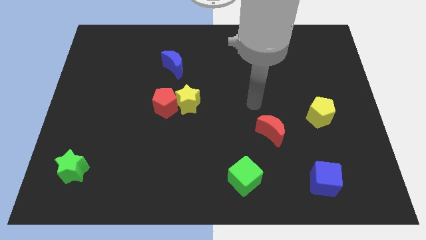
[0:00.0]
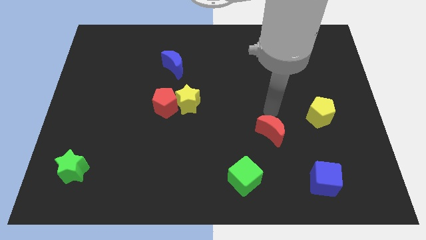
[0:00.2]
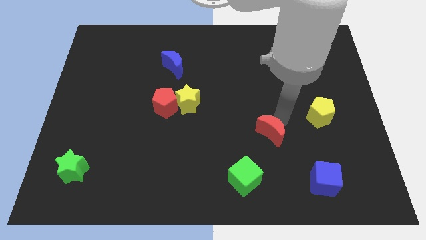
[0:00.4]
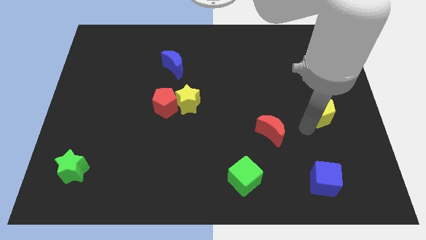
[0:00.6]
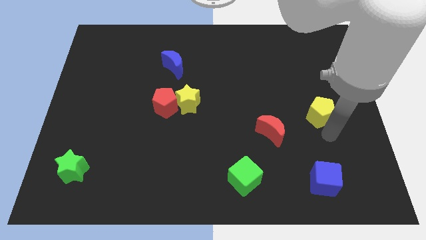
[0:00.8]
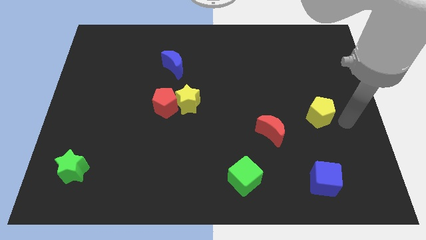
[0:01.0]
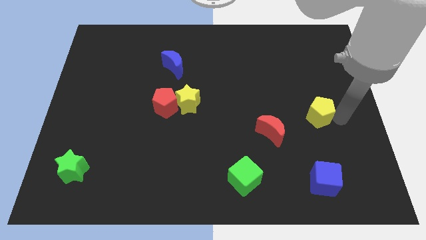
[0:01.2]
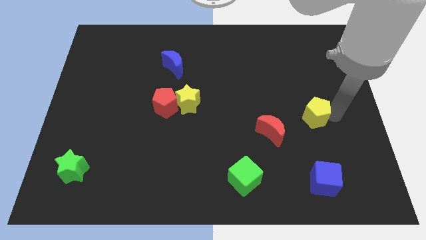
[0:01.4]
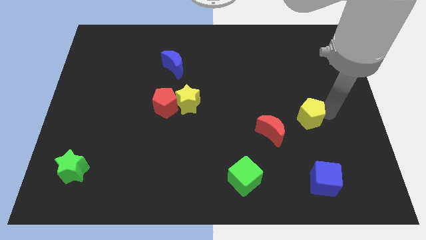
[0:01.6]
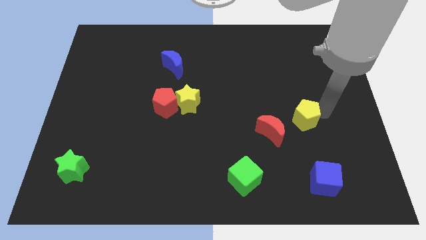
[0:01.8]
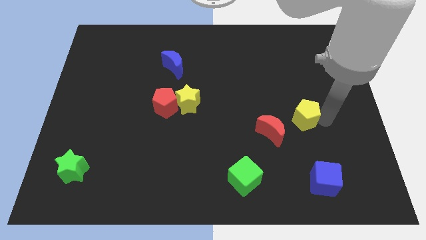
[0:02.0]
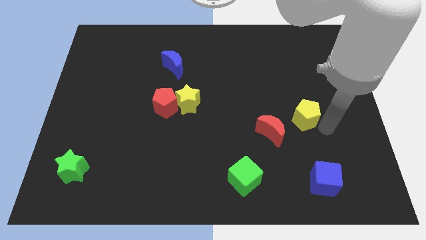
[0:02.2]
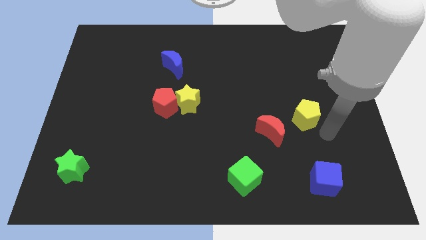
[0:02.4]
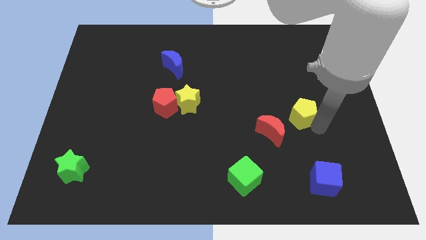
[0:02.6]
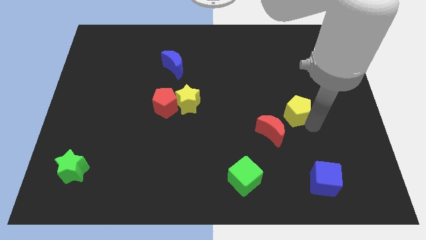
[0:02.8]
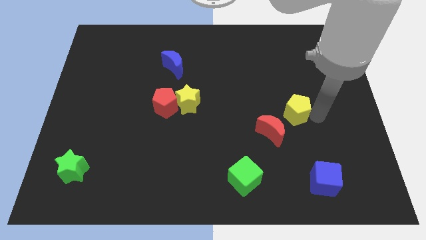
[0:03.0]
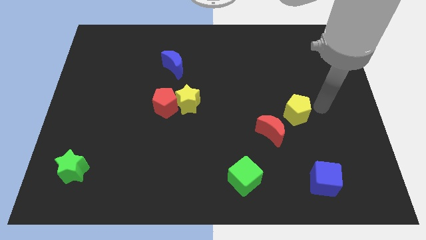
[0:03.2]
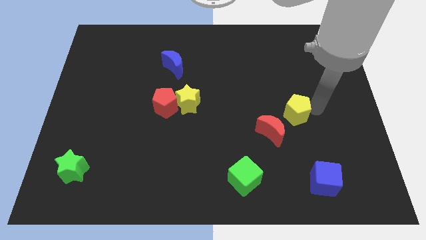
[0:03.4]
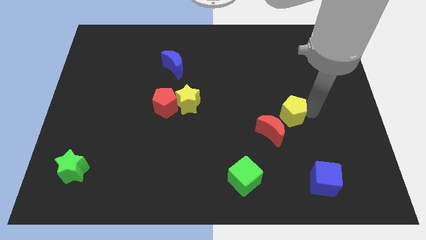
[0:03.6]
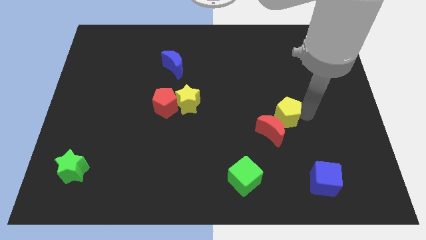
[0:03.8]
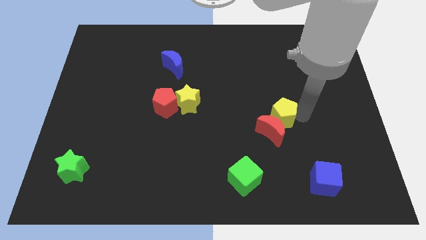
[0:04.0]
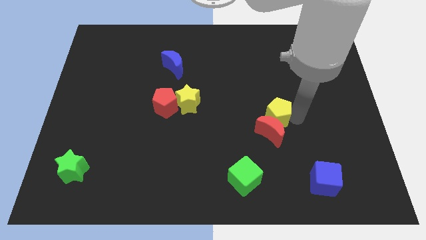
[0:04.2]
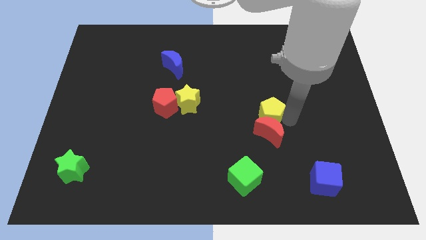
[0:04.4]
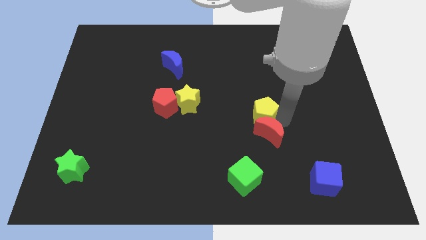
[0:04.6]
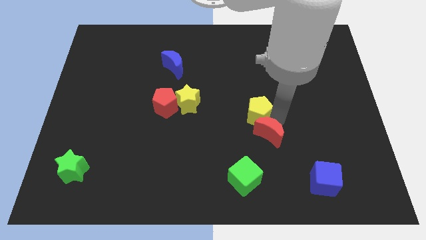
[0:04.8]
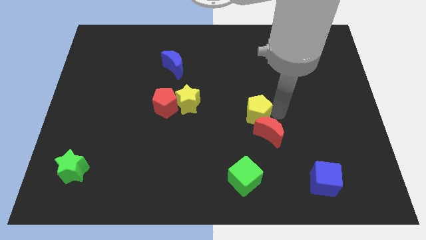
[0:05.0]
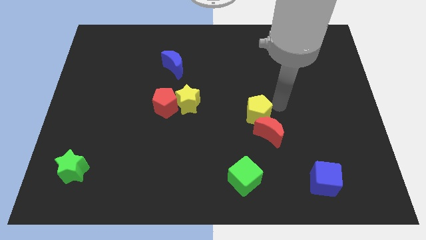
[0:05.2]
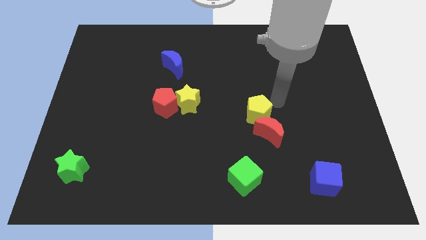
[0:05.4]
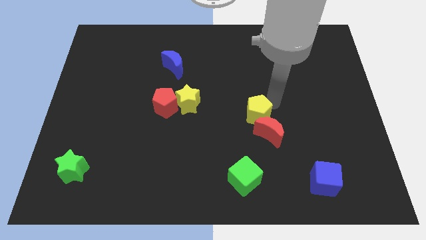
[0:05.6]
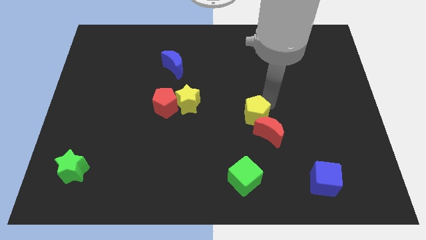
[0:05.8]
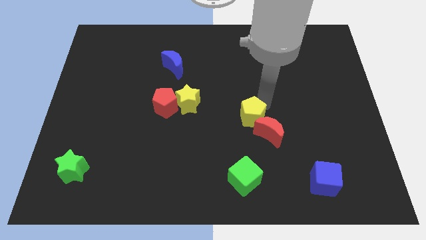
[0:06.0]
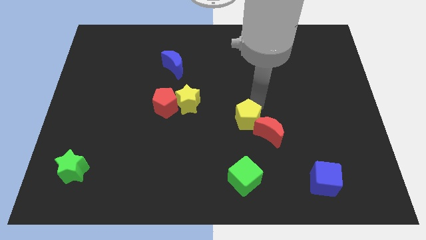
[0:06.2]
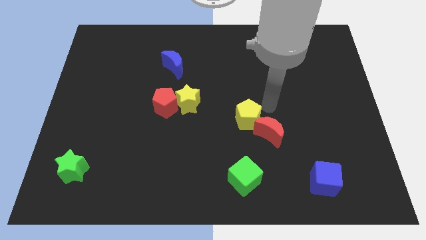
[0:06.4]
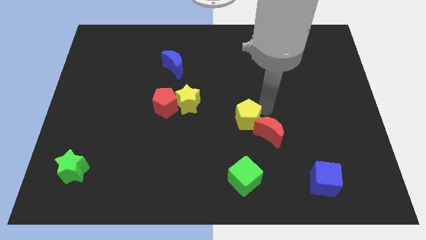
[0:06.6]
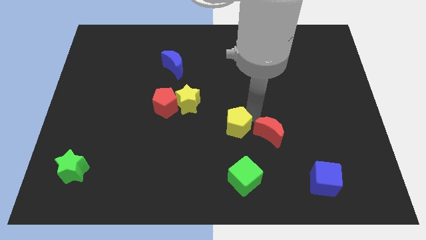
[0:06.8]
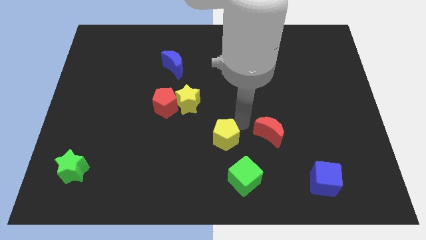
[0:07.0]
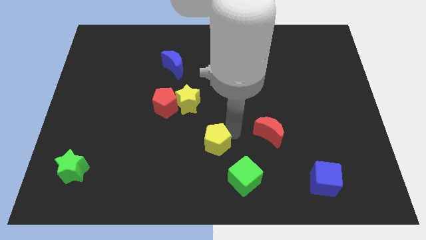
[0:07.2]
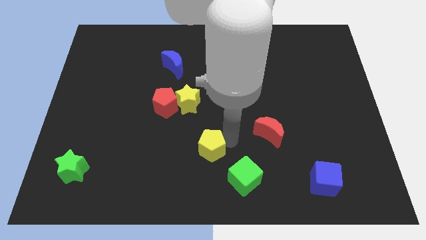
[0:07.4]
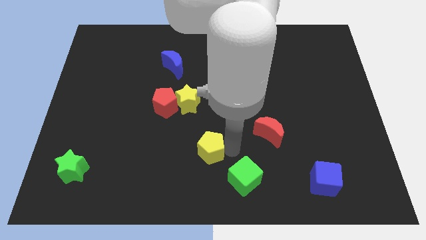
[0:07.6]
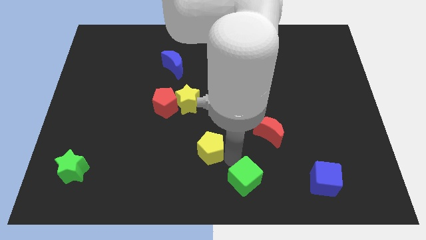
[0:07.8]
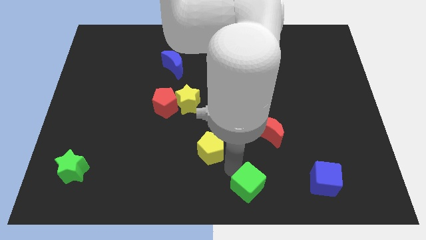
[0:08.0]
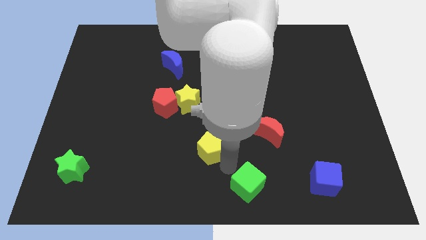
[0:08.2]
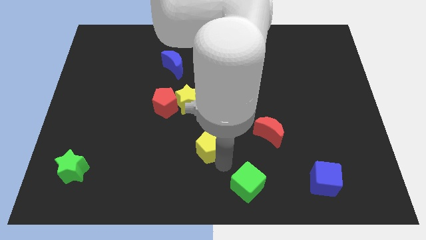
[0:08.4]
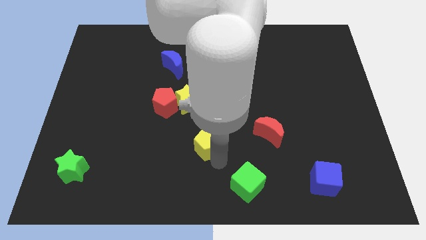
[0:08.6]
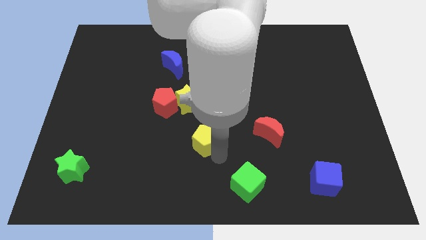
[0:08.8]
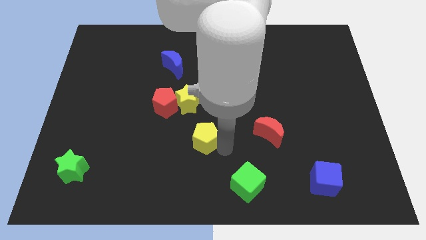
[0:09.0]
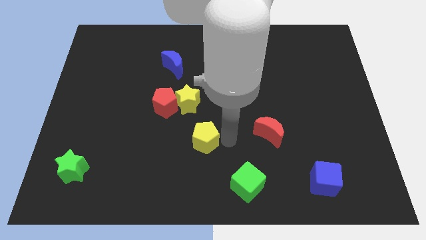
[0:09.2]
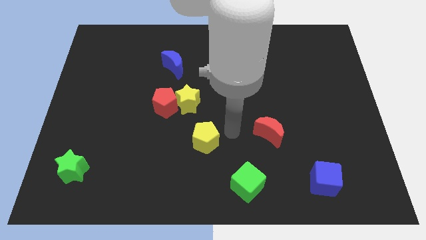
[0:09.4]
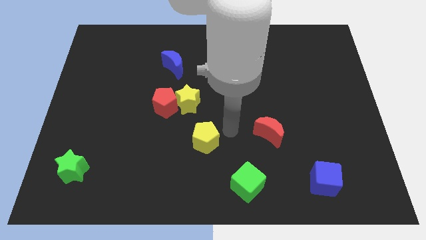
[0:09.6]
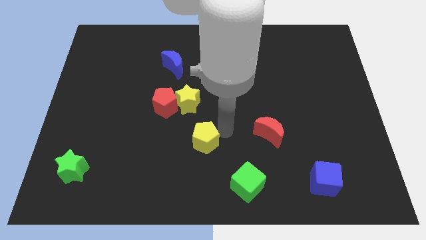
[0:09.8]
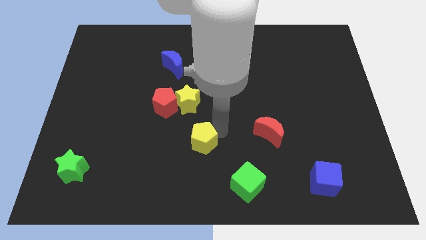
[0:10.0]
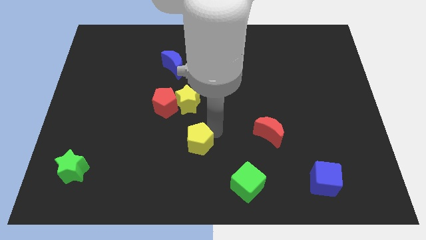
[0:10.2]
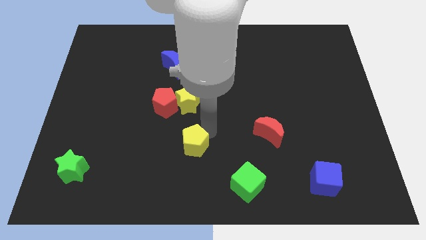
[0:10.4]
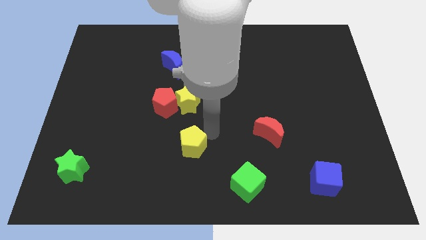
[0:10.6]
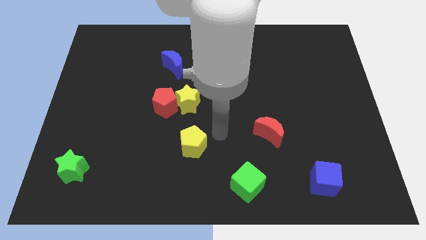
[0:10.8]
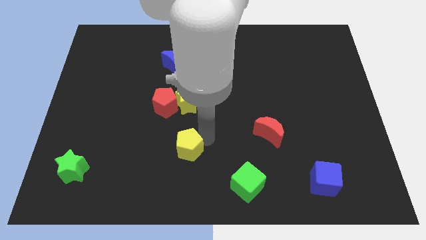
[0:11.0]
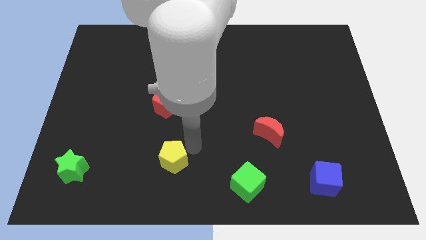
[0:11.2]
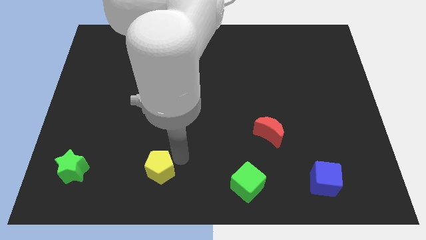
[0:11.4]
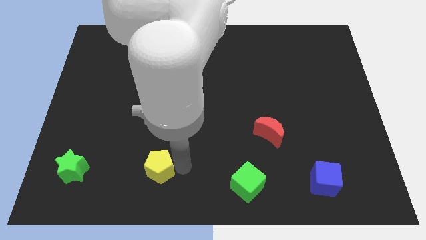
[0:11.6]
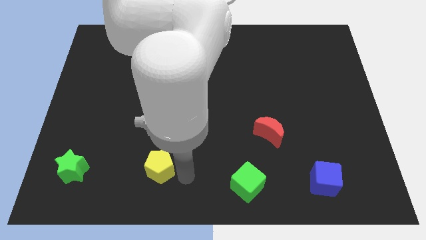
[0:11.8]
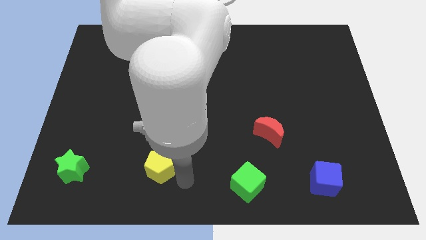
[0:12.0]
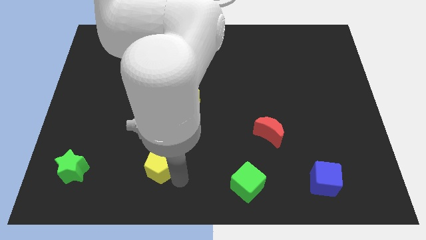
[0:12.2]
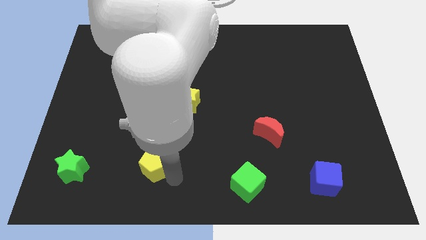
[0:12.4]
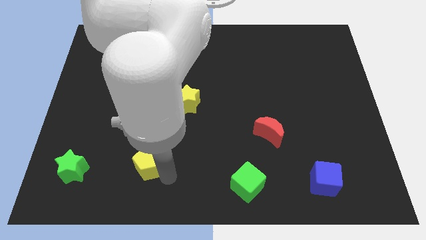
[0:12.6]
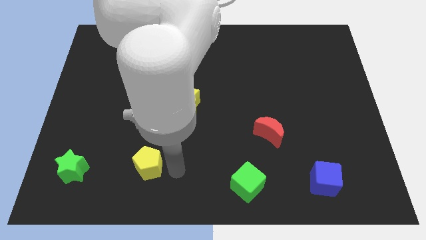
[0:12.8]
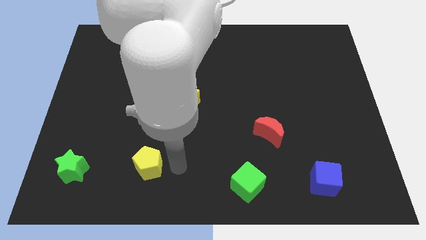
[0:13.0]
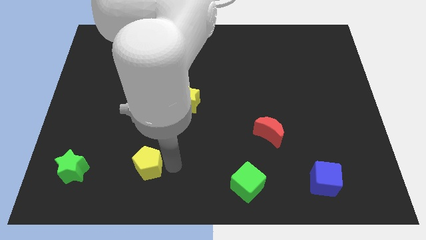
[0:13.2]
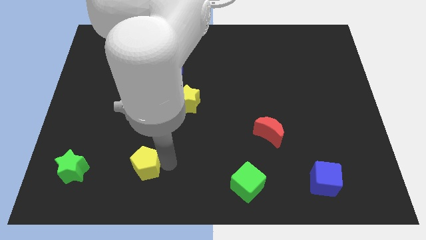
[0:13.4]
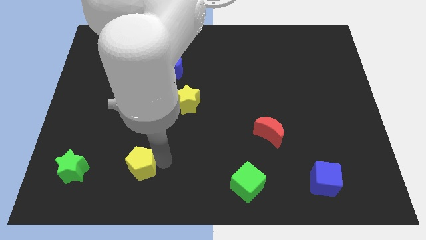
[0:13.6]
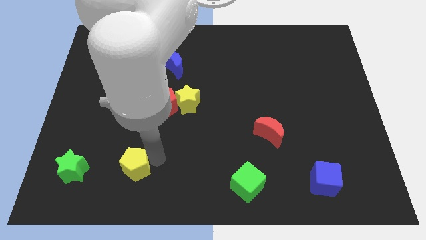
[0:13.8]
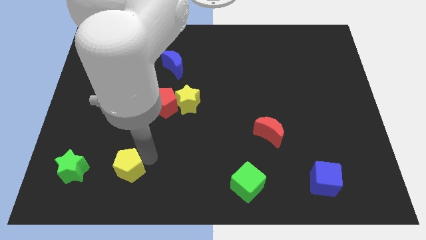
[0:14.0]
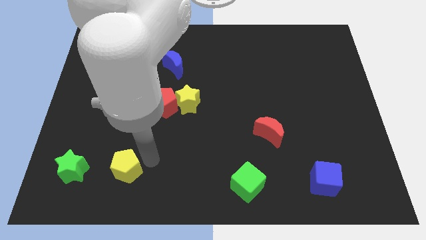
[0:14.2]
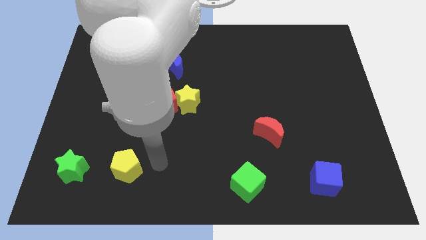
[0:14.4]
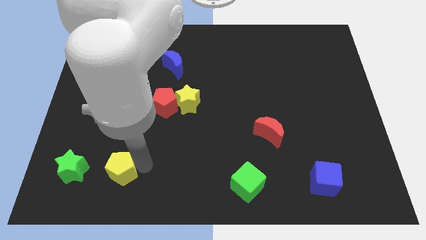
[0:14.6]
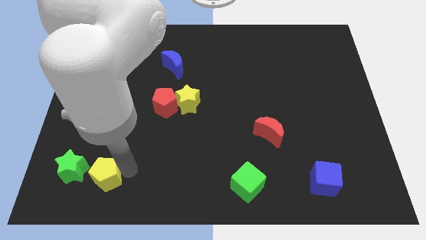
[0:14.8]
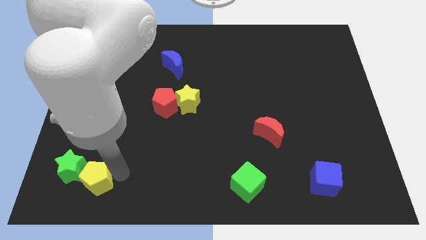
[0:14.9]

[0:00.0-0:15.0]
slide the yellow pentagon close to the green star

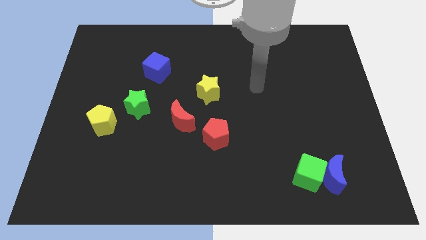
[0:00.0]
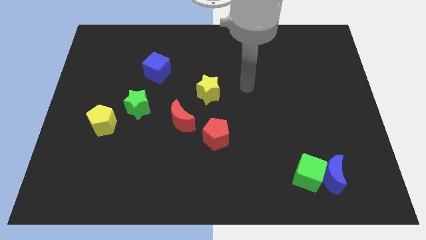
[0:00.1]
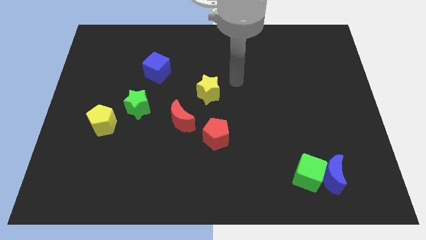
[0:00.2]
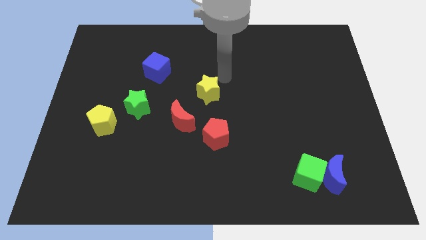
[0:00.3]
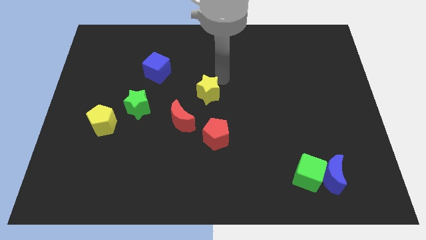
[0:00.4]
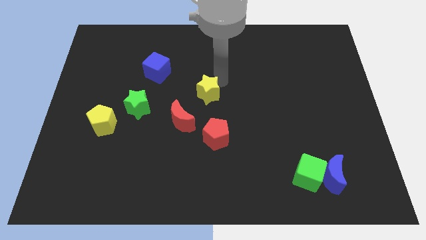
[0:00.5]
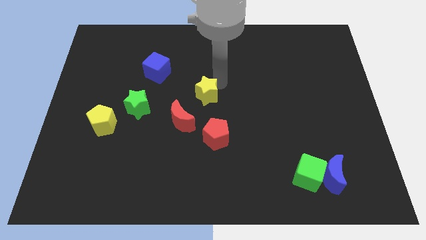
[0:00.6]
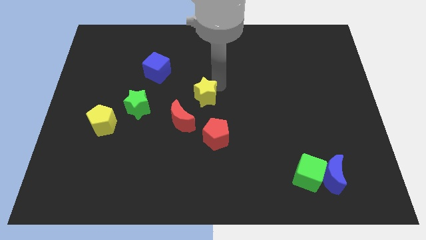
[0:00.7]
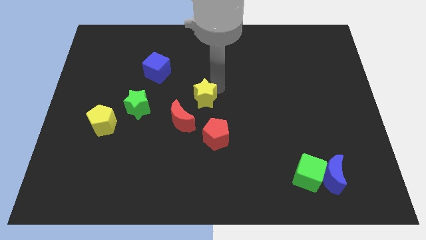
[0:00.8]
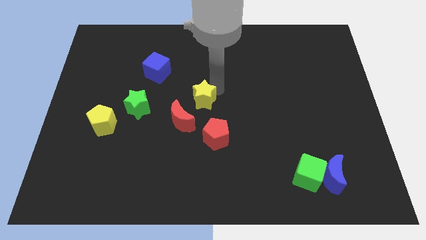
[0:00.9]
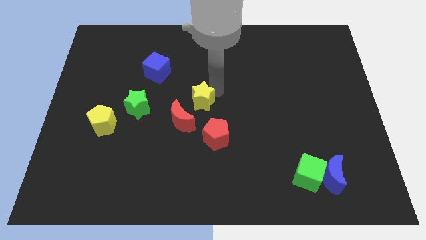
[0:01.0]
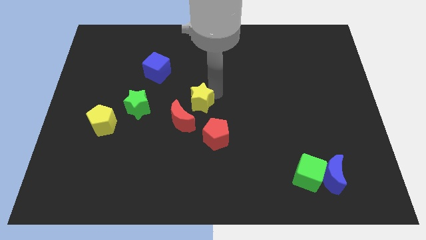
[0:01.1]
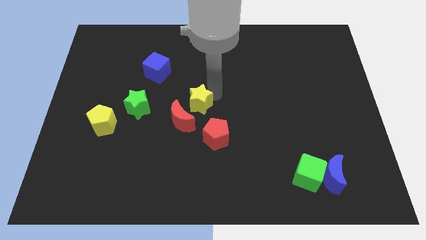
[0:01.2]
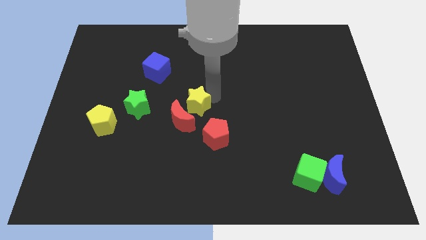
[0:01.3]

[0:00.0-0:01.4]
push the yellow star to the red moon
